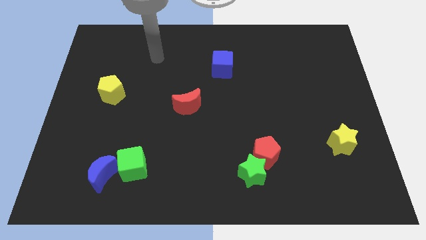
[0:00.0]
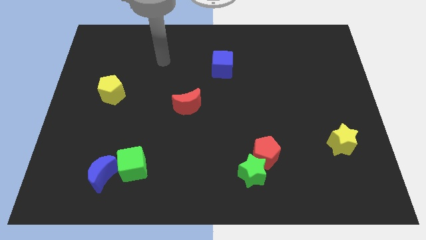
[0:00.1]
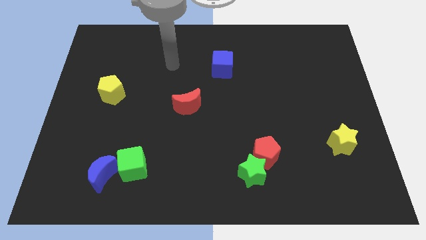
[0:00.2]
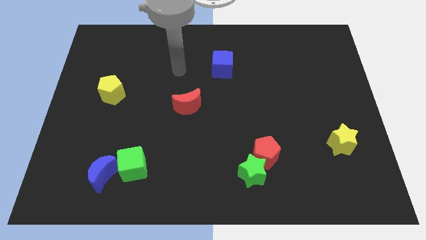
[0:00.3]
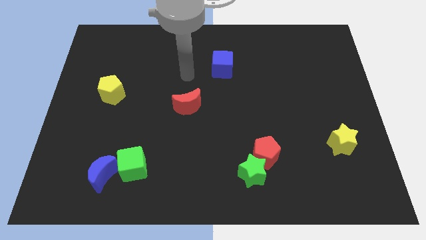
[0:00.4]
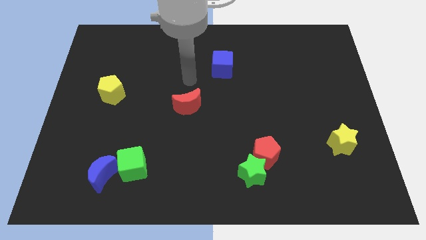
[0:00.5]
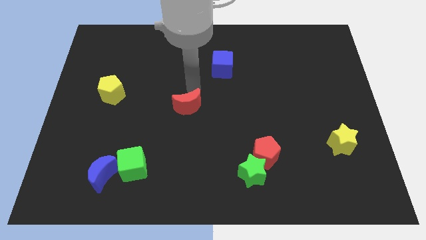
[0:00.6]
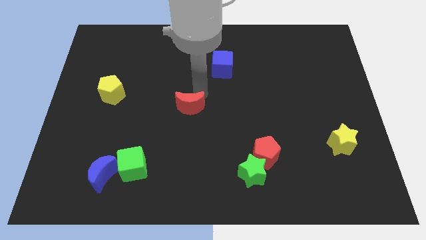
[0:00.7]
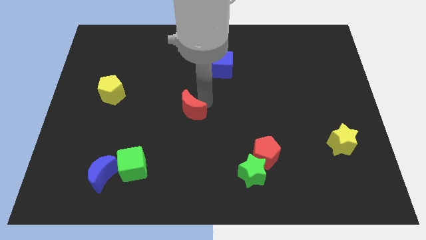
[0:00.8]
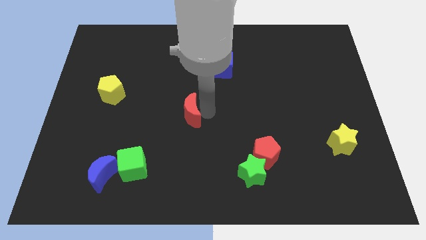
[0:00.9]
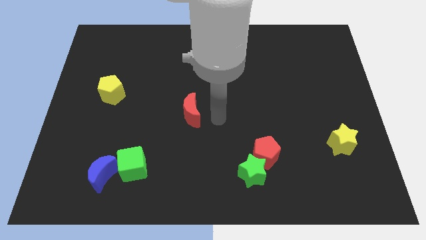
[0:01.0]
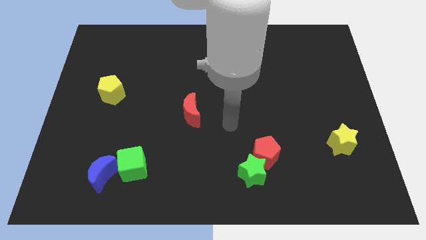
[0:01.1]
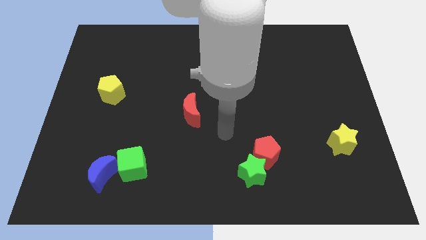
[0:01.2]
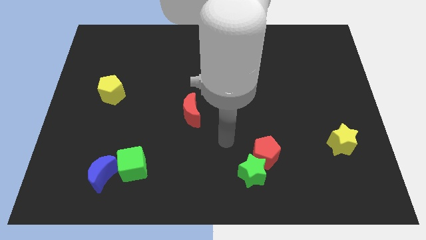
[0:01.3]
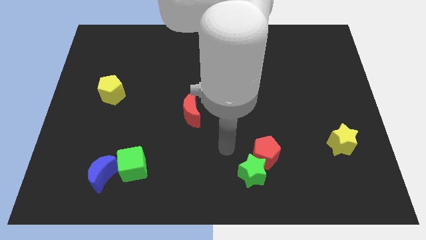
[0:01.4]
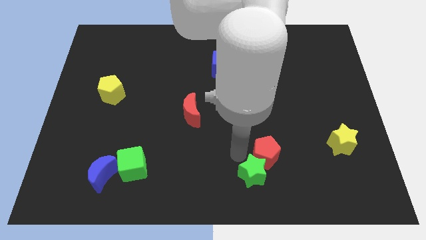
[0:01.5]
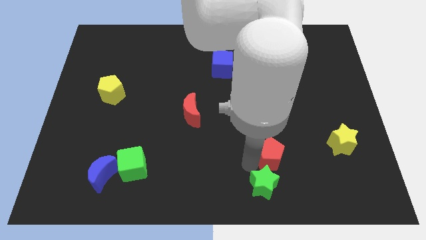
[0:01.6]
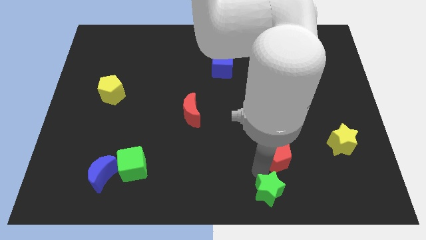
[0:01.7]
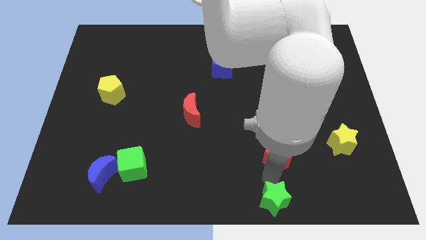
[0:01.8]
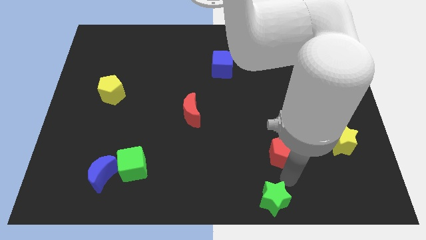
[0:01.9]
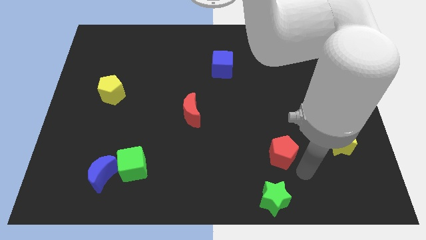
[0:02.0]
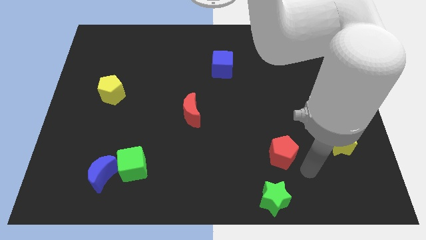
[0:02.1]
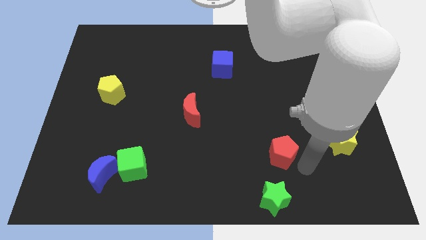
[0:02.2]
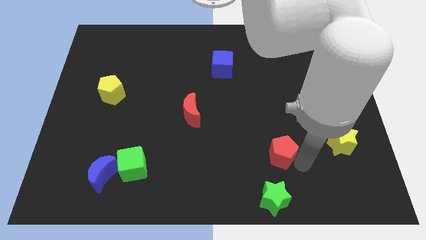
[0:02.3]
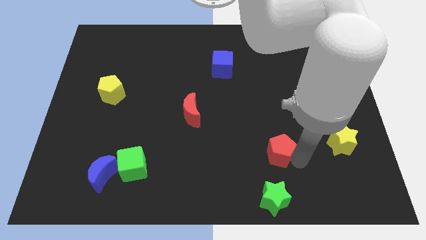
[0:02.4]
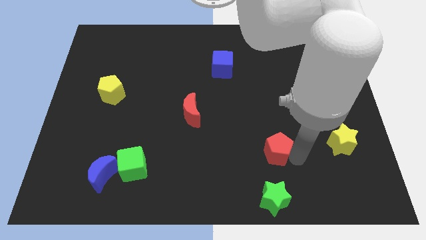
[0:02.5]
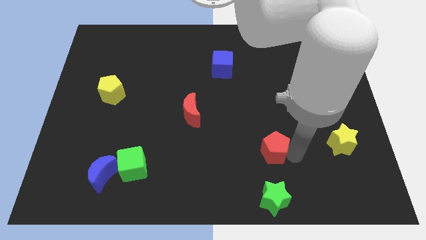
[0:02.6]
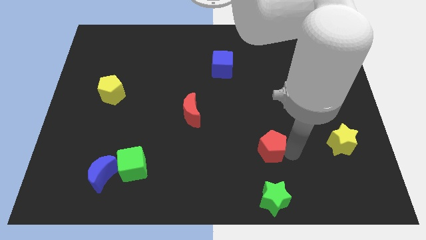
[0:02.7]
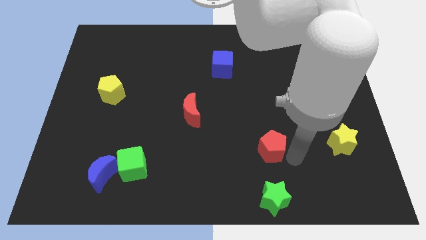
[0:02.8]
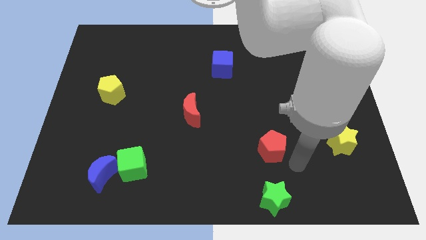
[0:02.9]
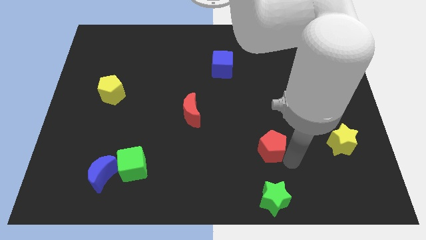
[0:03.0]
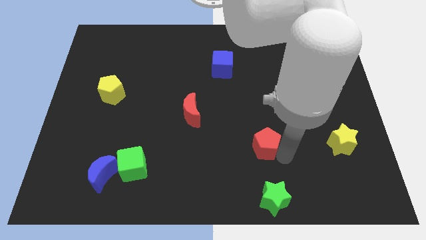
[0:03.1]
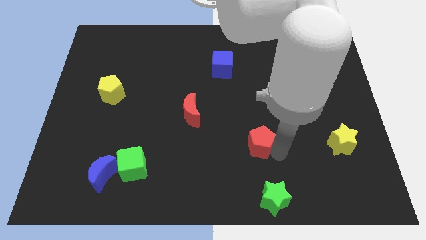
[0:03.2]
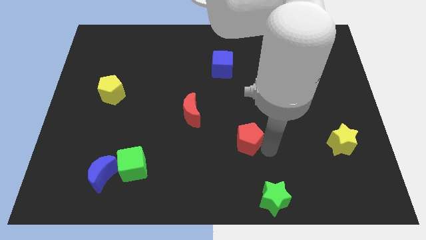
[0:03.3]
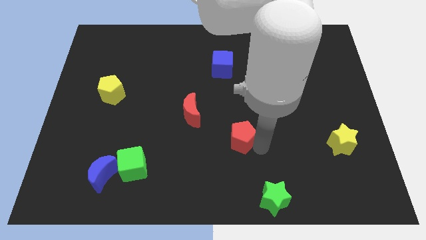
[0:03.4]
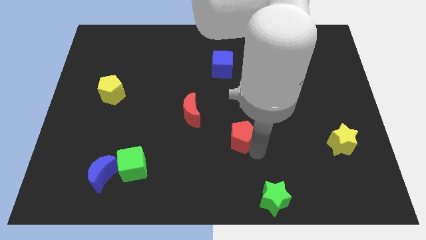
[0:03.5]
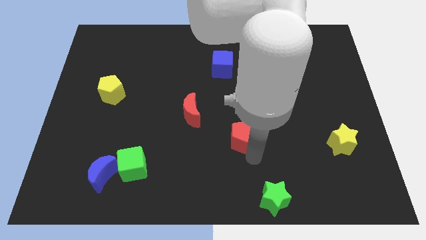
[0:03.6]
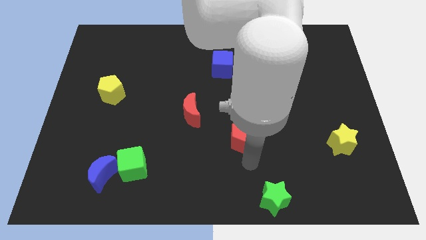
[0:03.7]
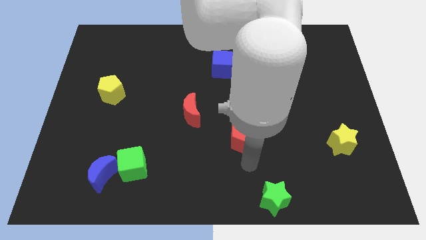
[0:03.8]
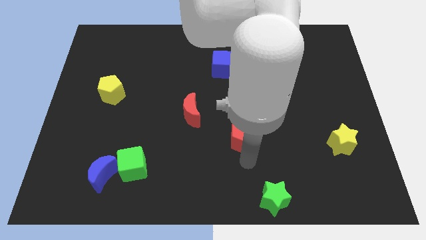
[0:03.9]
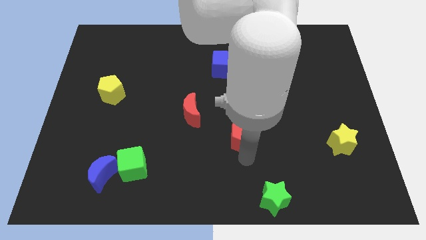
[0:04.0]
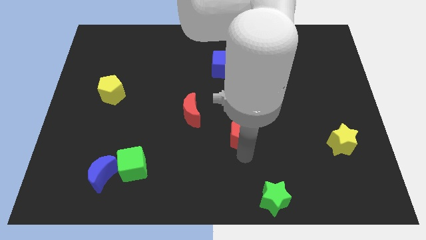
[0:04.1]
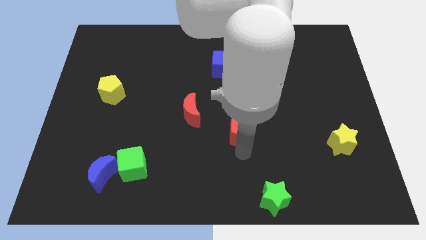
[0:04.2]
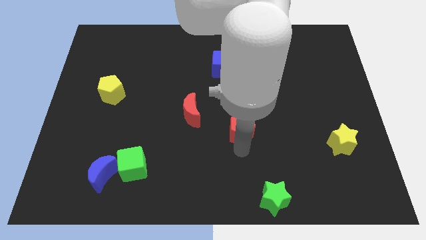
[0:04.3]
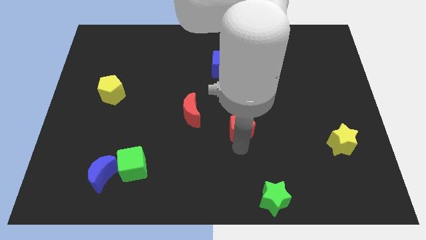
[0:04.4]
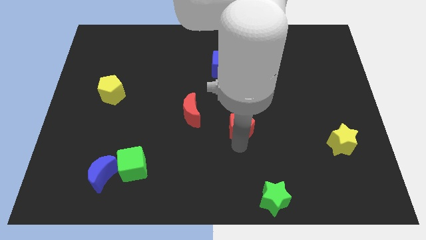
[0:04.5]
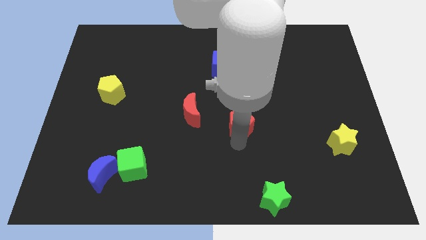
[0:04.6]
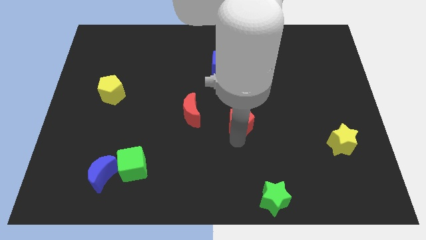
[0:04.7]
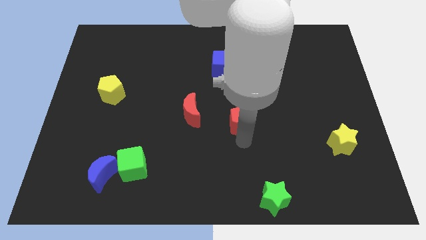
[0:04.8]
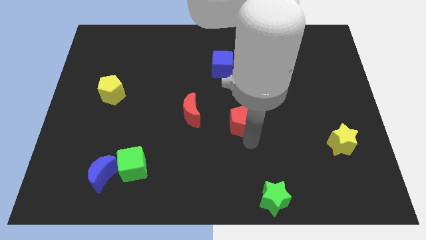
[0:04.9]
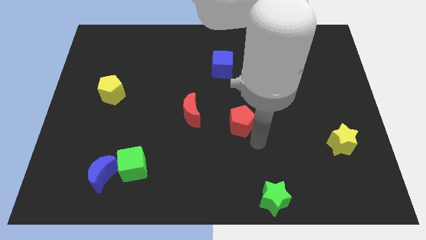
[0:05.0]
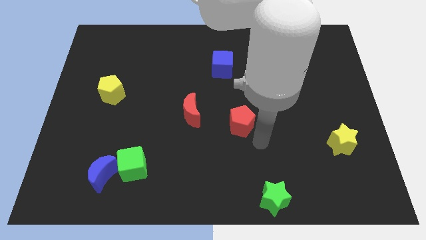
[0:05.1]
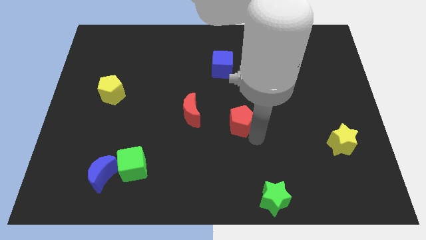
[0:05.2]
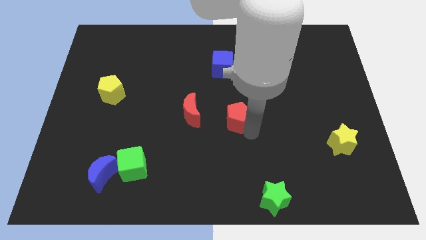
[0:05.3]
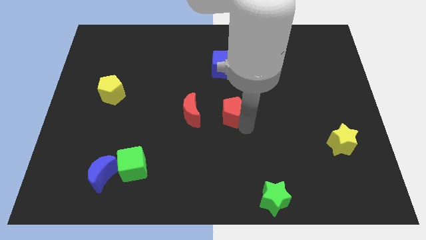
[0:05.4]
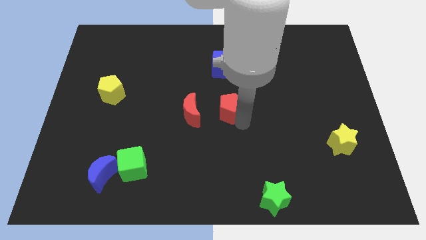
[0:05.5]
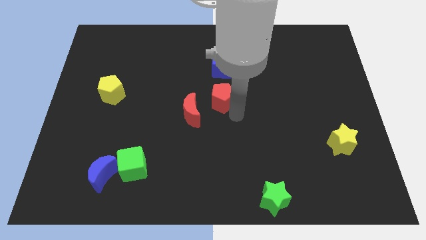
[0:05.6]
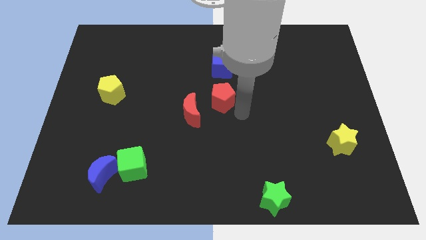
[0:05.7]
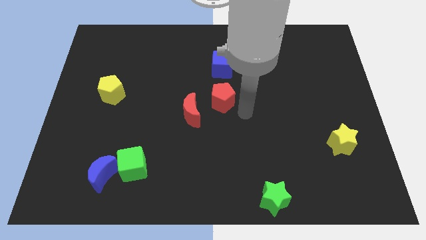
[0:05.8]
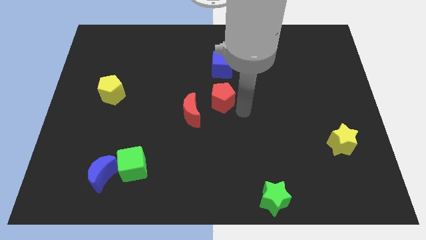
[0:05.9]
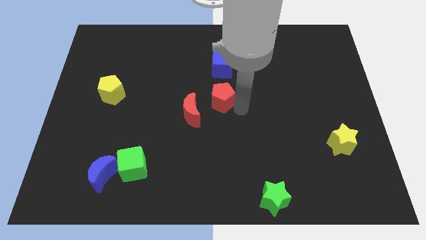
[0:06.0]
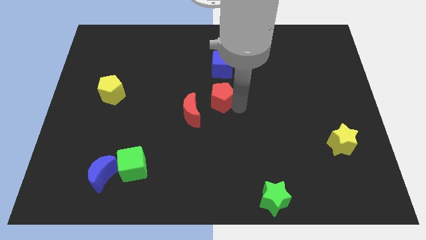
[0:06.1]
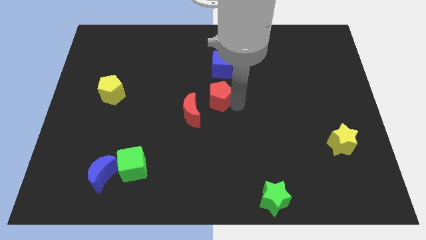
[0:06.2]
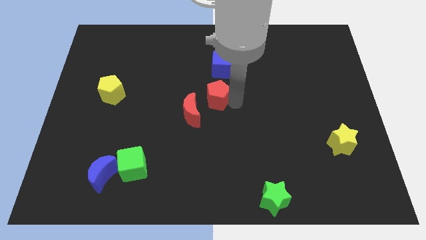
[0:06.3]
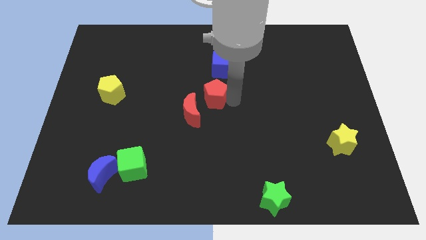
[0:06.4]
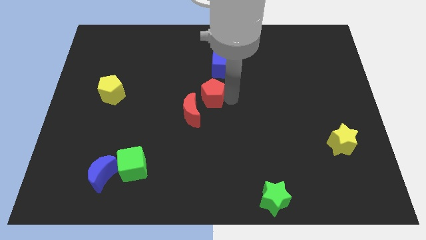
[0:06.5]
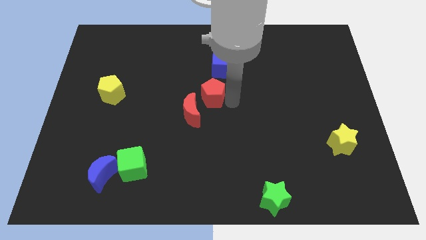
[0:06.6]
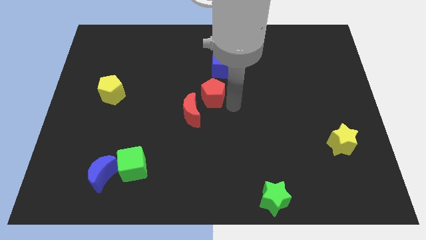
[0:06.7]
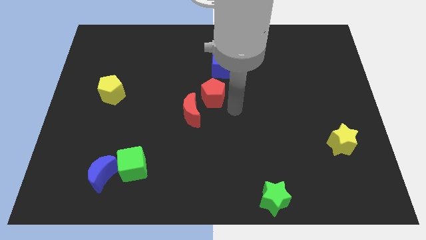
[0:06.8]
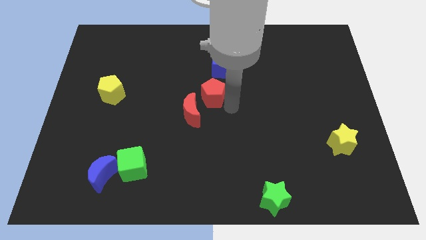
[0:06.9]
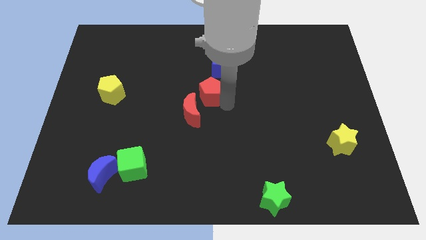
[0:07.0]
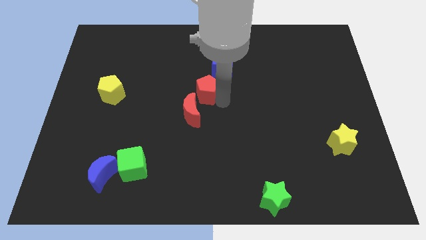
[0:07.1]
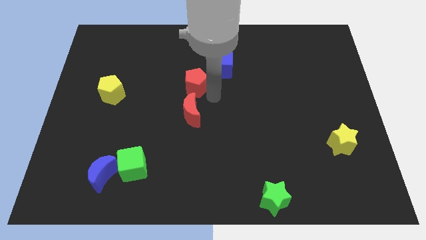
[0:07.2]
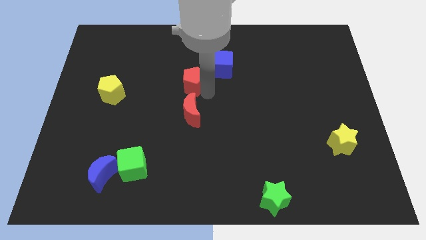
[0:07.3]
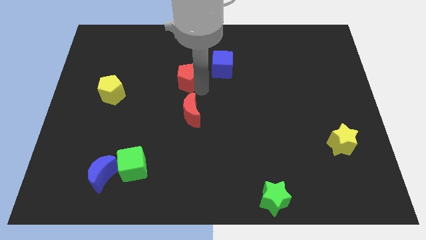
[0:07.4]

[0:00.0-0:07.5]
move the red pentagon just left of the blue cube
